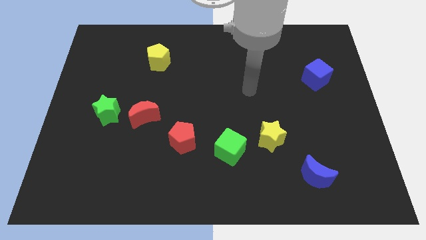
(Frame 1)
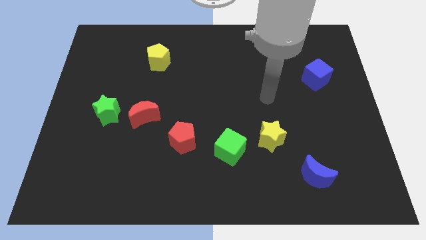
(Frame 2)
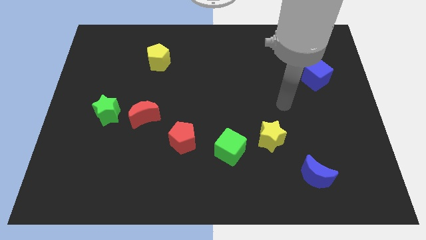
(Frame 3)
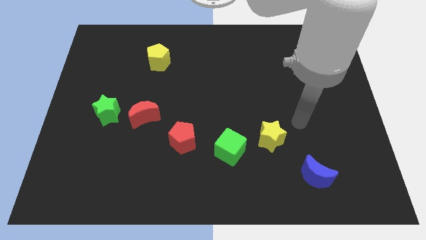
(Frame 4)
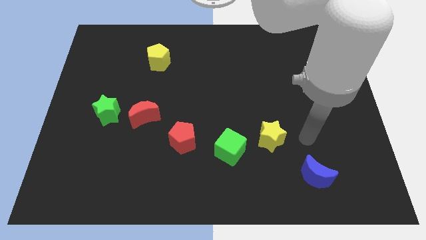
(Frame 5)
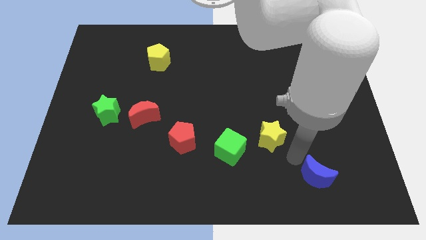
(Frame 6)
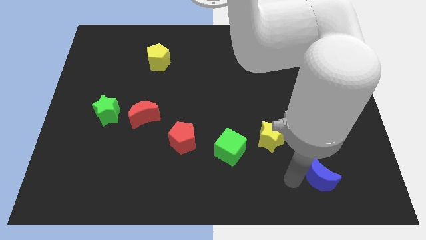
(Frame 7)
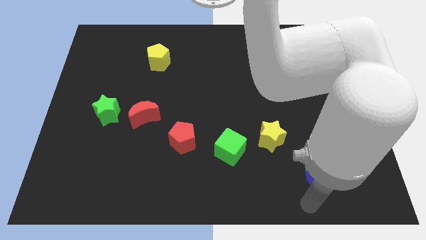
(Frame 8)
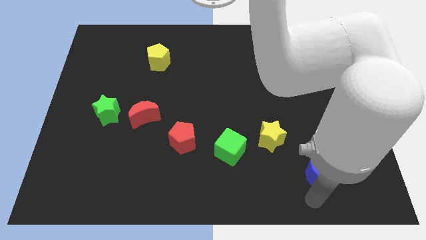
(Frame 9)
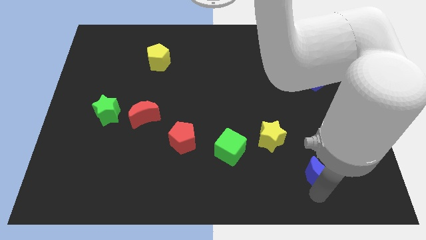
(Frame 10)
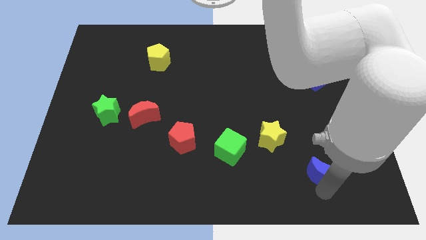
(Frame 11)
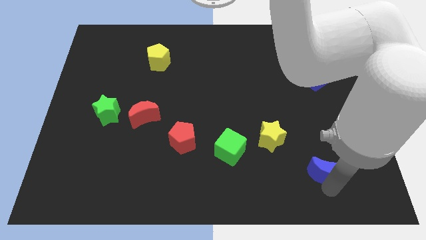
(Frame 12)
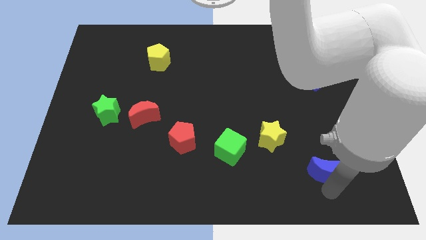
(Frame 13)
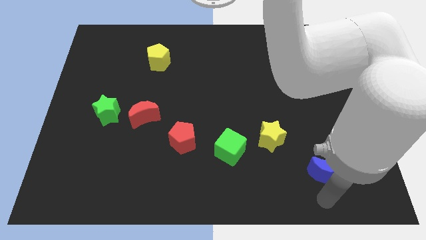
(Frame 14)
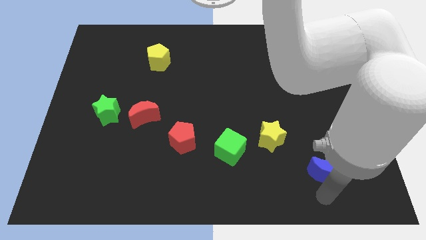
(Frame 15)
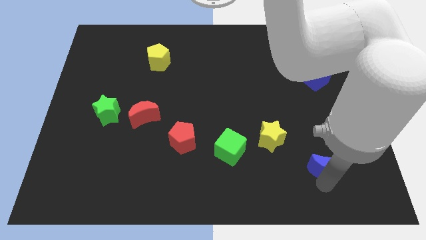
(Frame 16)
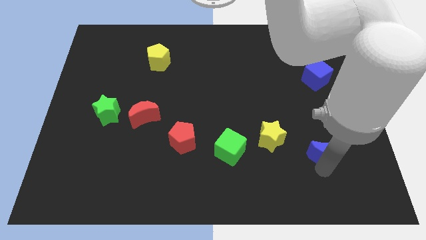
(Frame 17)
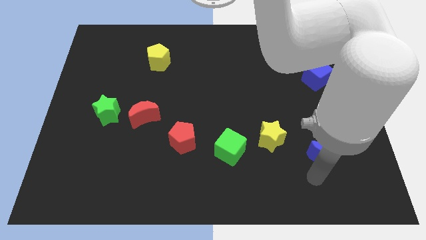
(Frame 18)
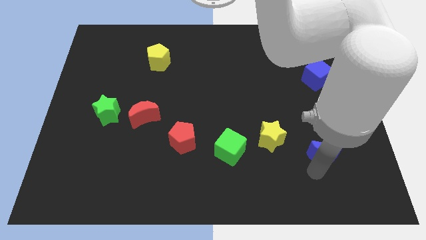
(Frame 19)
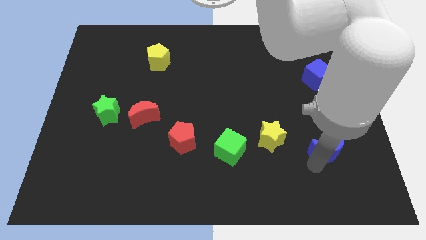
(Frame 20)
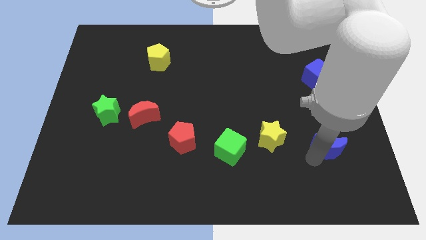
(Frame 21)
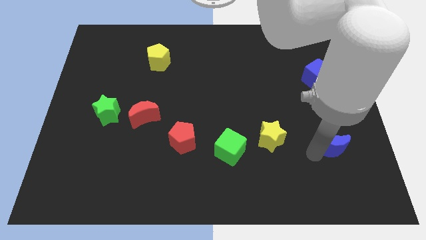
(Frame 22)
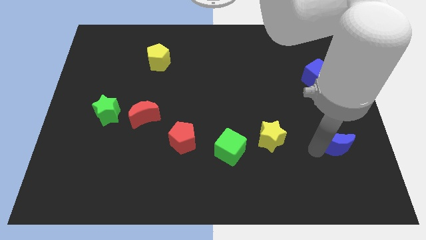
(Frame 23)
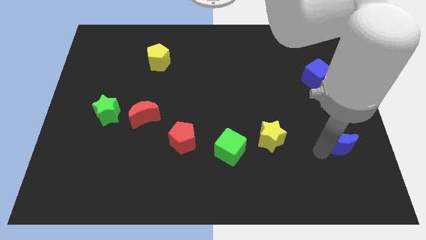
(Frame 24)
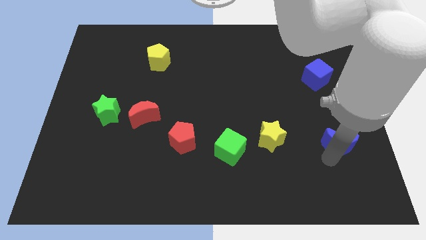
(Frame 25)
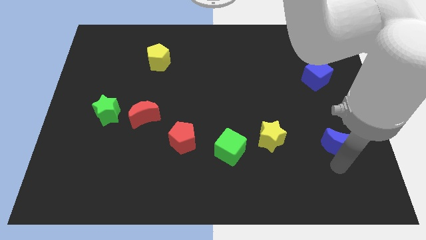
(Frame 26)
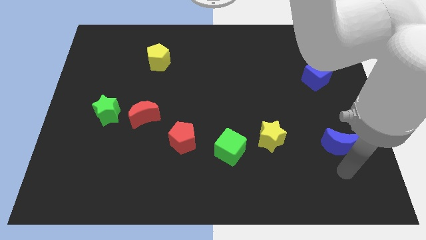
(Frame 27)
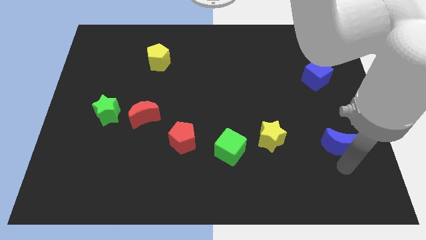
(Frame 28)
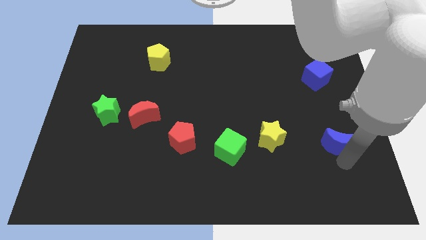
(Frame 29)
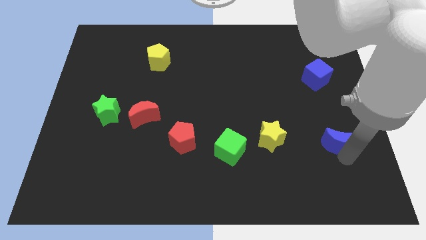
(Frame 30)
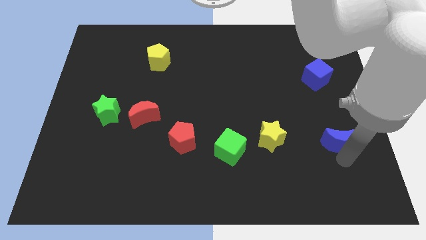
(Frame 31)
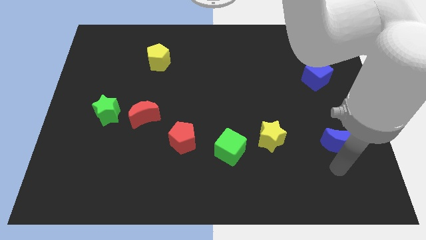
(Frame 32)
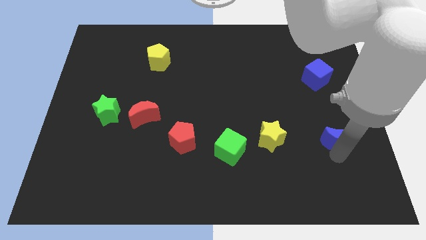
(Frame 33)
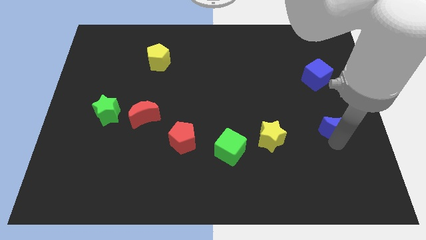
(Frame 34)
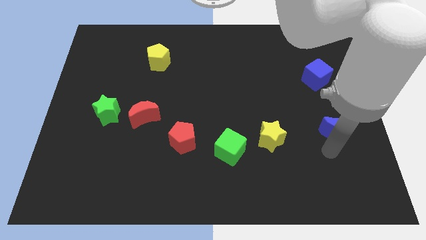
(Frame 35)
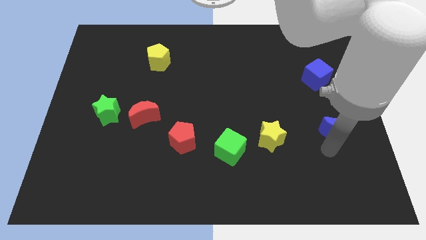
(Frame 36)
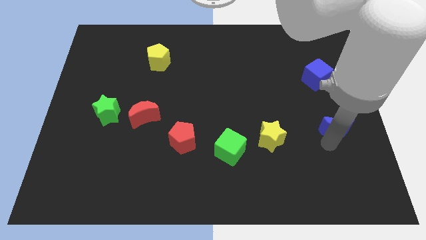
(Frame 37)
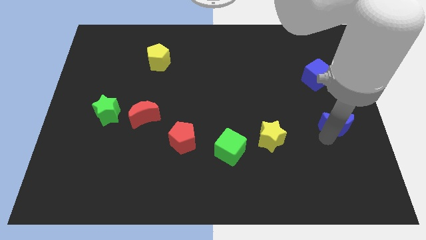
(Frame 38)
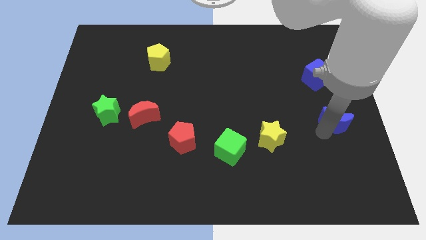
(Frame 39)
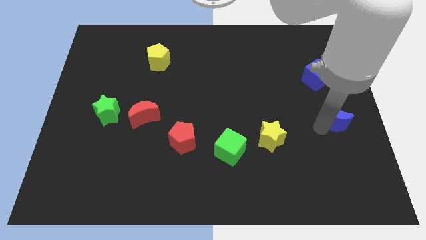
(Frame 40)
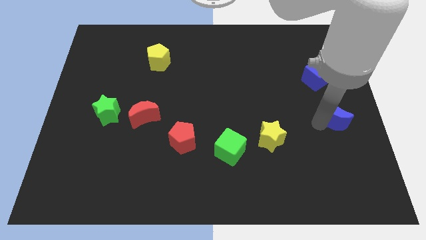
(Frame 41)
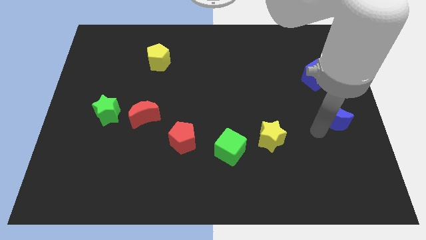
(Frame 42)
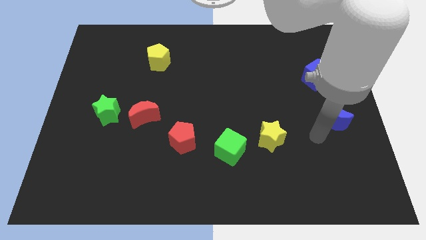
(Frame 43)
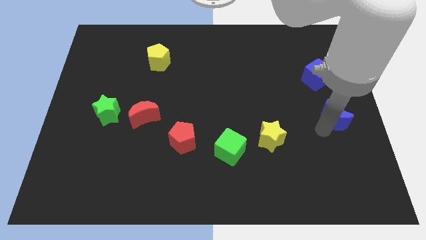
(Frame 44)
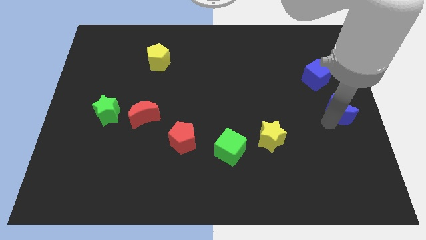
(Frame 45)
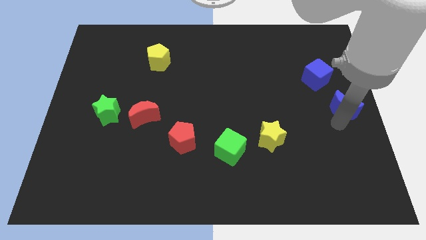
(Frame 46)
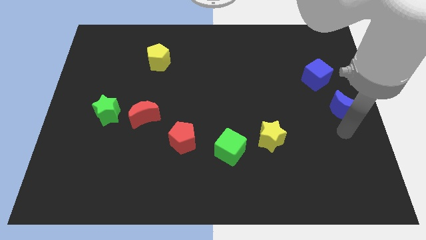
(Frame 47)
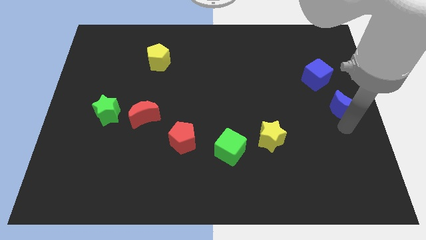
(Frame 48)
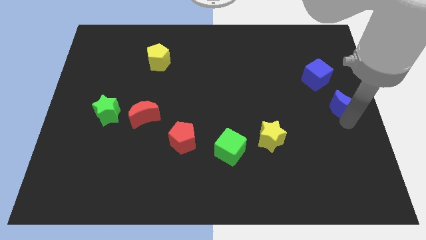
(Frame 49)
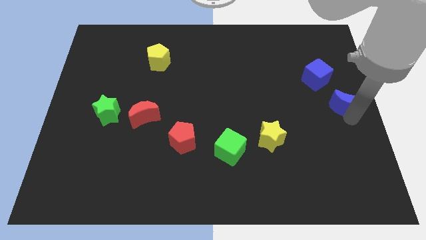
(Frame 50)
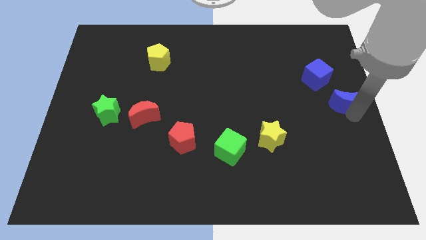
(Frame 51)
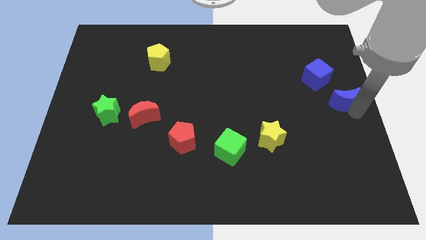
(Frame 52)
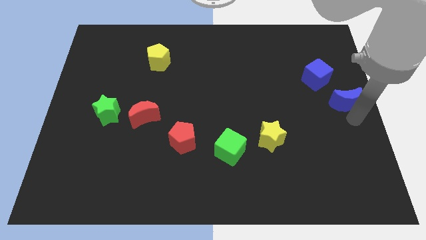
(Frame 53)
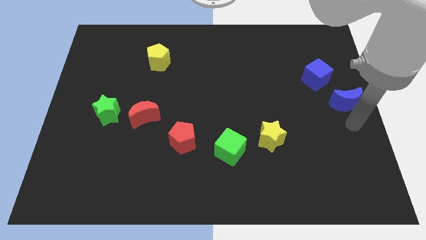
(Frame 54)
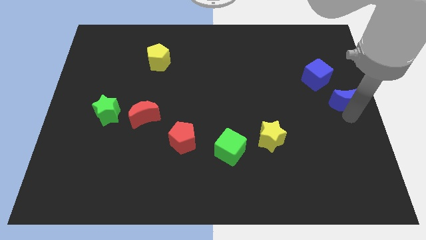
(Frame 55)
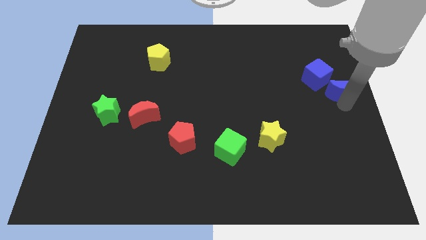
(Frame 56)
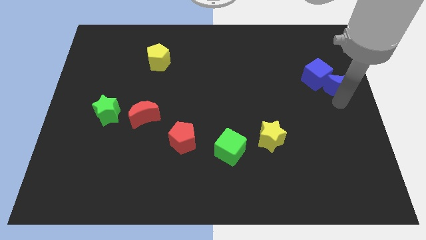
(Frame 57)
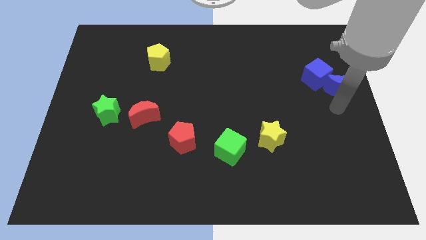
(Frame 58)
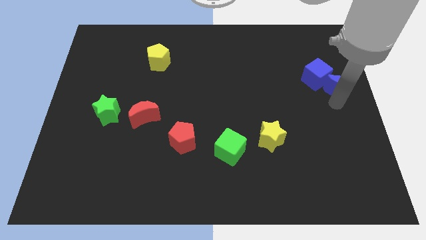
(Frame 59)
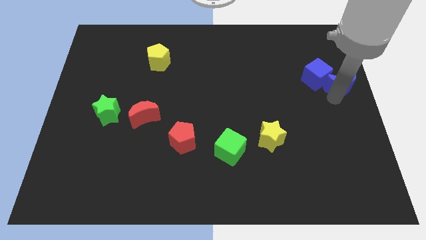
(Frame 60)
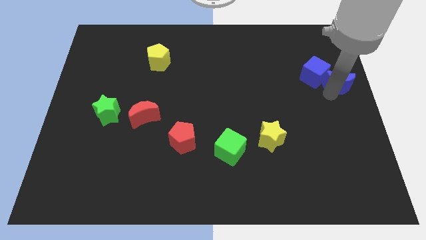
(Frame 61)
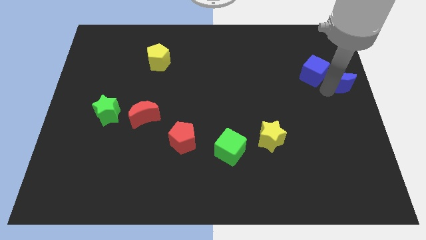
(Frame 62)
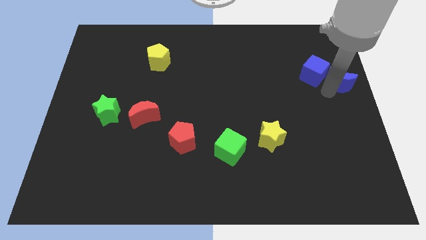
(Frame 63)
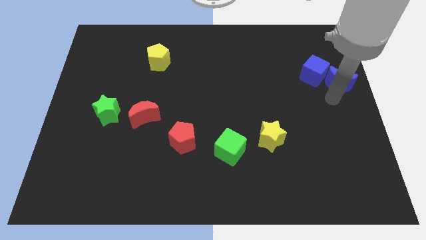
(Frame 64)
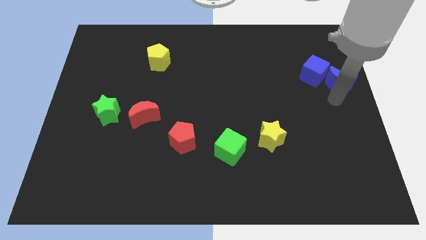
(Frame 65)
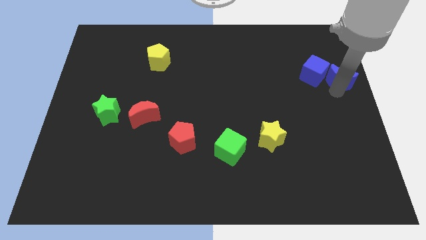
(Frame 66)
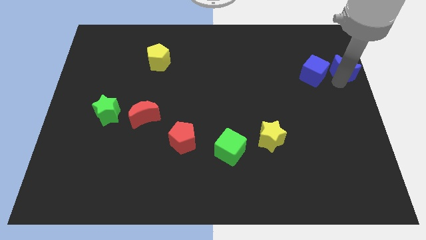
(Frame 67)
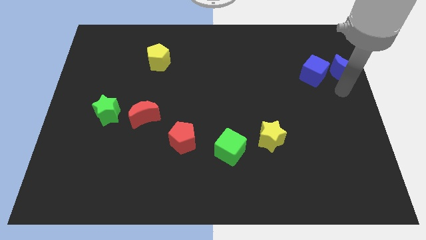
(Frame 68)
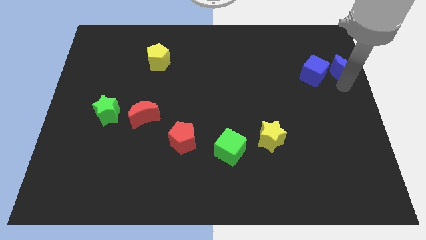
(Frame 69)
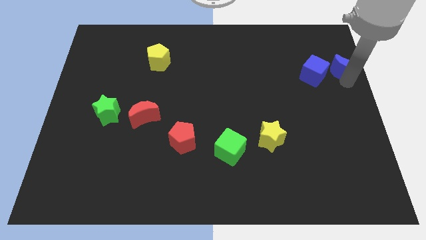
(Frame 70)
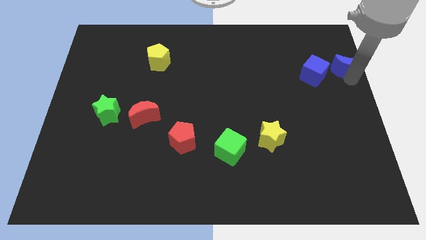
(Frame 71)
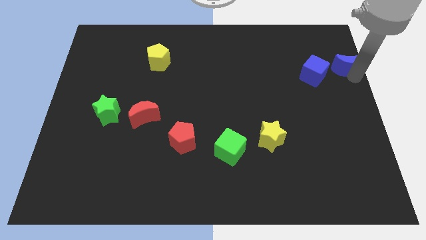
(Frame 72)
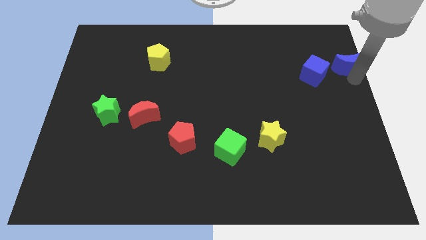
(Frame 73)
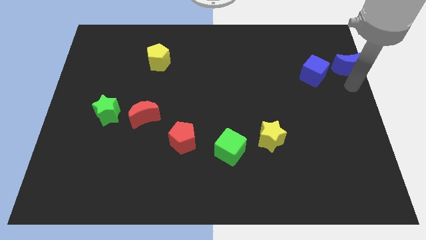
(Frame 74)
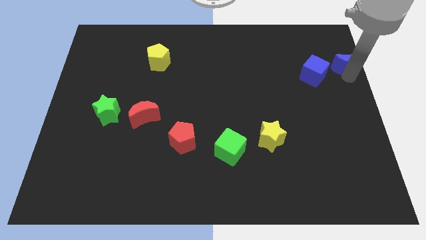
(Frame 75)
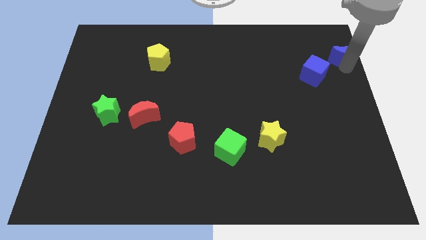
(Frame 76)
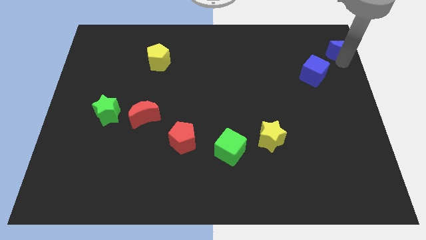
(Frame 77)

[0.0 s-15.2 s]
move the blue moon to the upper right corner
